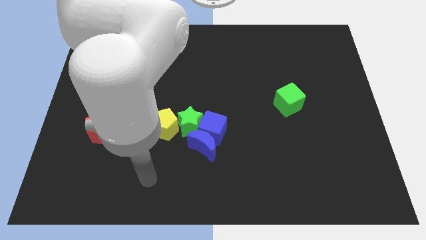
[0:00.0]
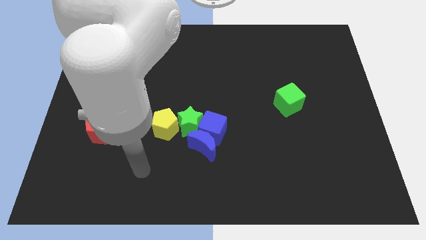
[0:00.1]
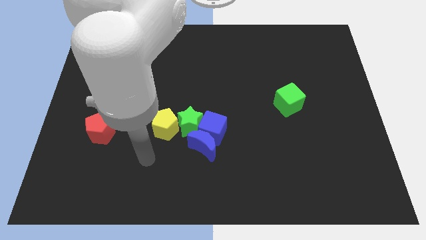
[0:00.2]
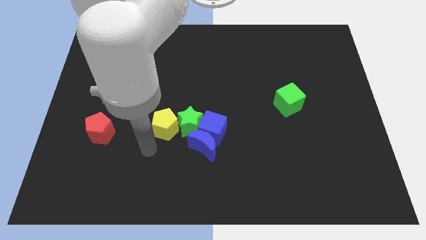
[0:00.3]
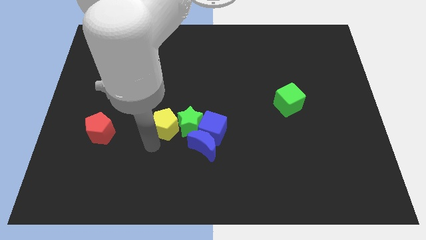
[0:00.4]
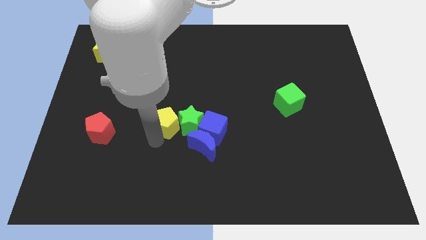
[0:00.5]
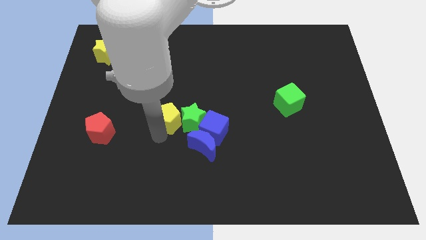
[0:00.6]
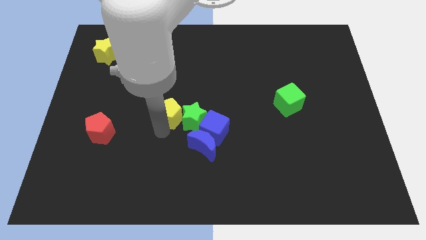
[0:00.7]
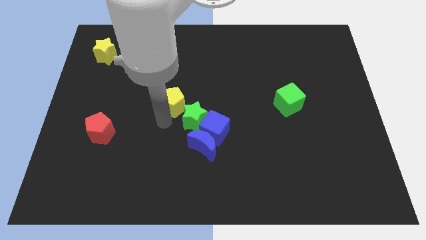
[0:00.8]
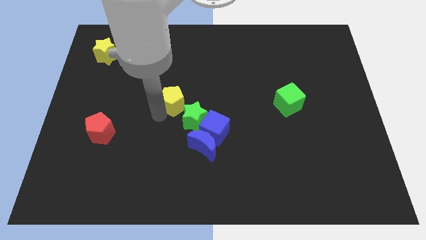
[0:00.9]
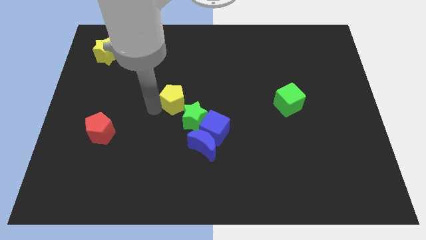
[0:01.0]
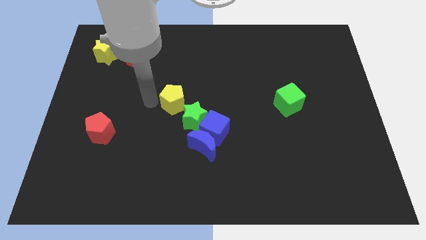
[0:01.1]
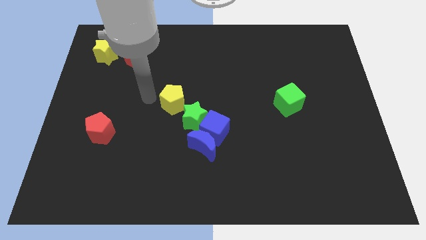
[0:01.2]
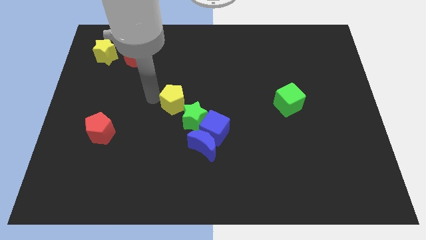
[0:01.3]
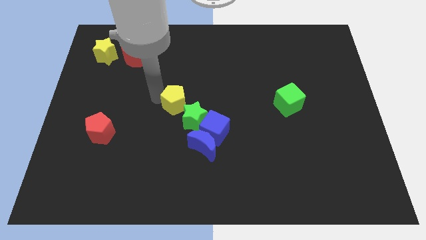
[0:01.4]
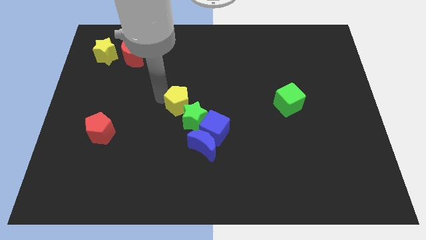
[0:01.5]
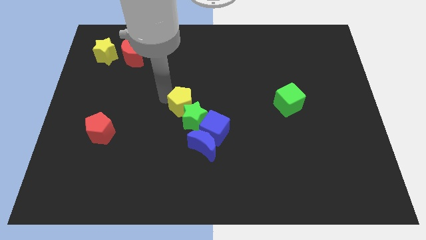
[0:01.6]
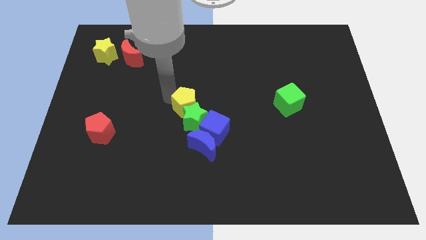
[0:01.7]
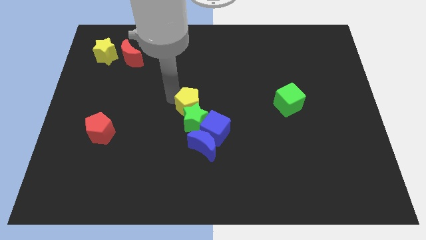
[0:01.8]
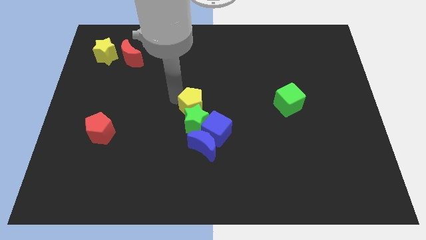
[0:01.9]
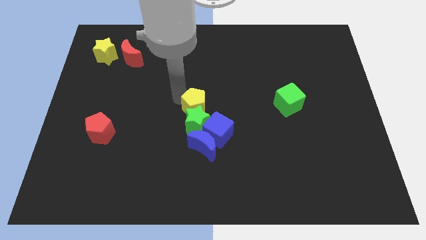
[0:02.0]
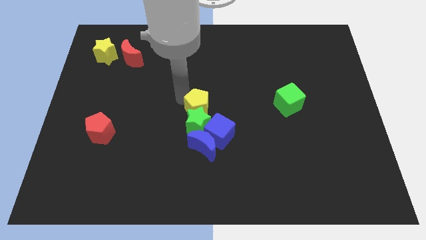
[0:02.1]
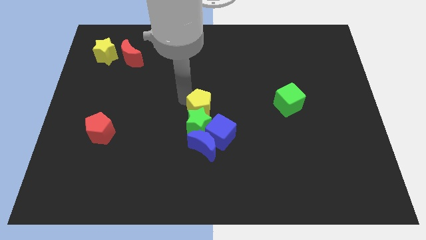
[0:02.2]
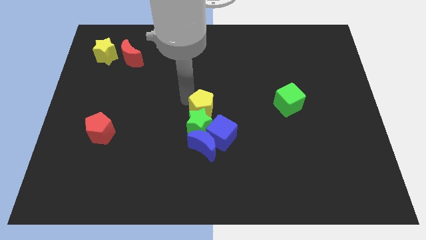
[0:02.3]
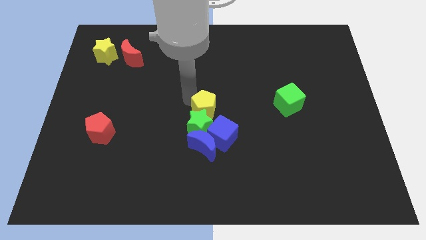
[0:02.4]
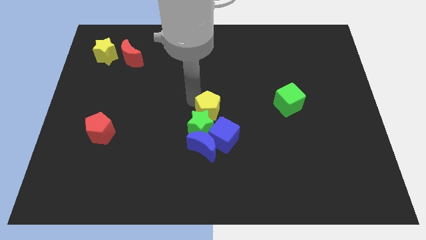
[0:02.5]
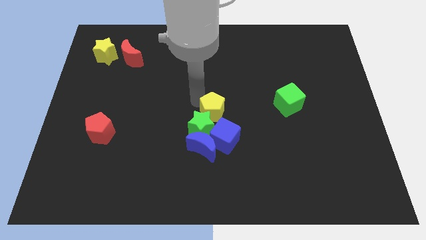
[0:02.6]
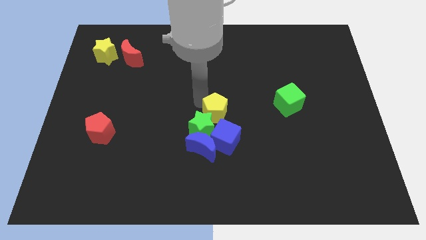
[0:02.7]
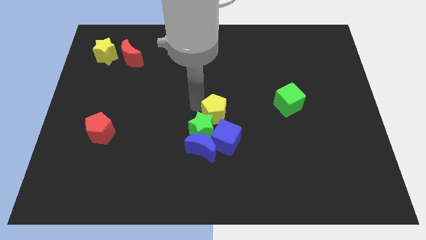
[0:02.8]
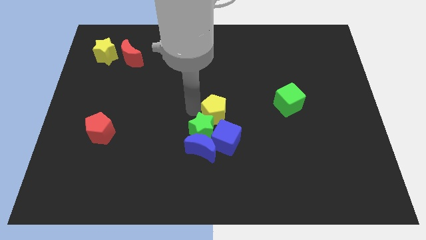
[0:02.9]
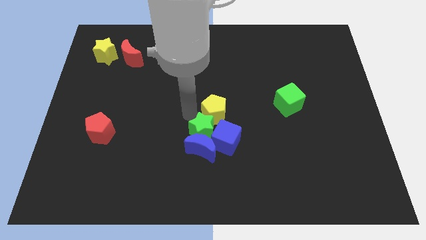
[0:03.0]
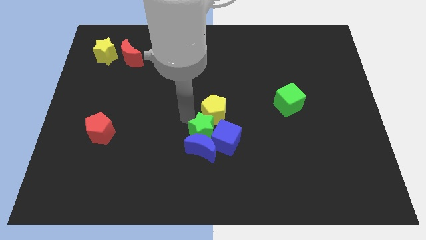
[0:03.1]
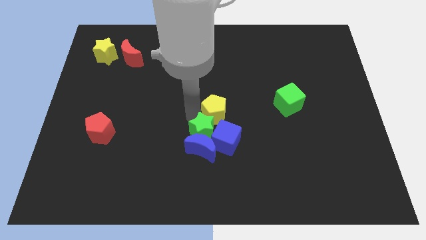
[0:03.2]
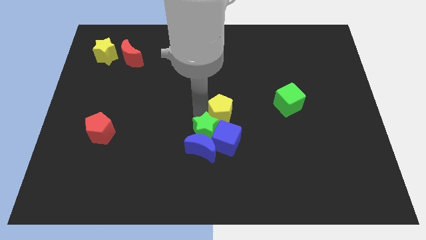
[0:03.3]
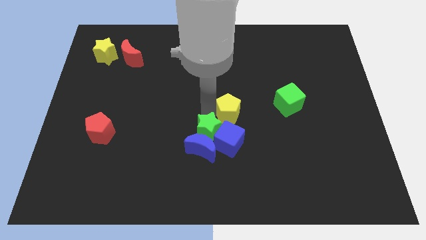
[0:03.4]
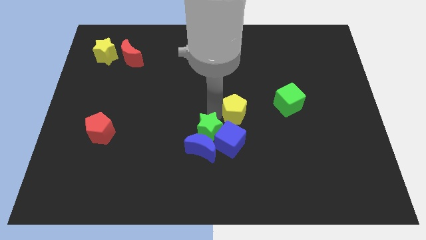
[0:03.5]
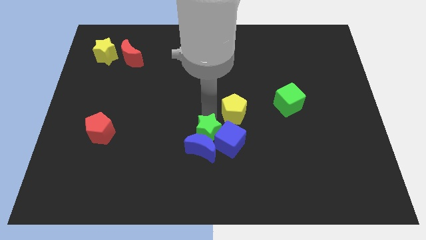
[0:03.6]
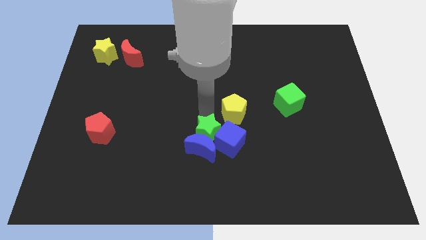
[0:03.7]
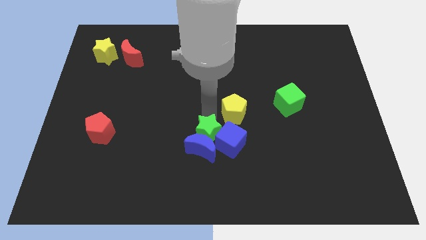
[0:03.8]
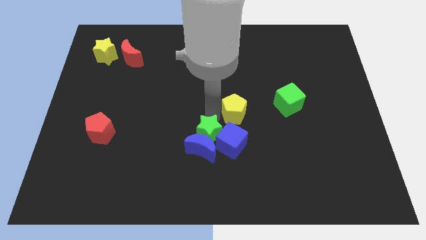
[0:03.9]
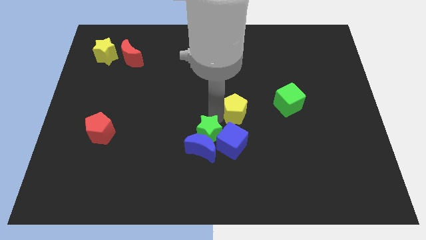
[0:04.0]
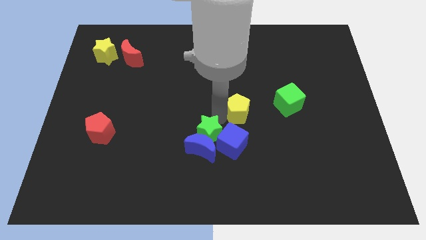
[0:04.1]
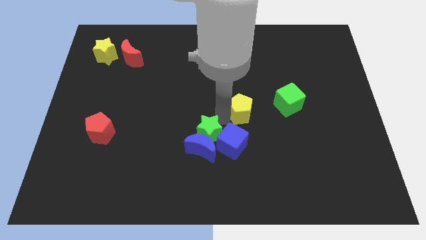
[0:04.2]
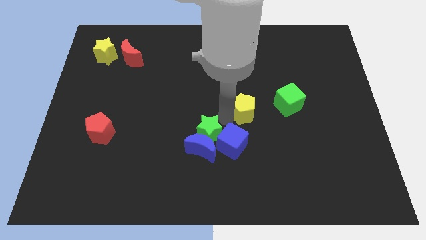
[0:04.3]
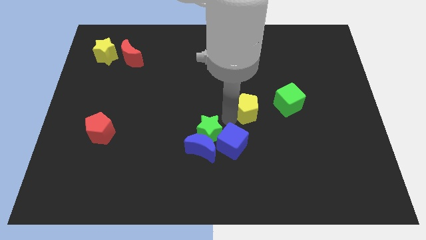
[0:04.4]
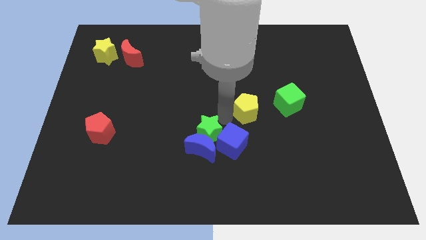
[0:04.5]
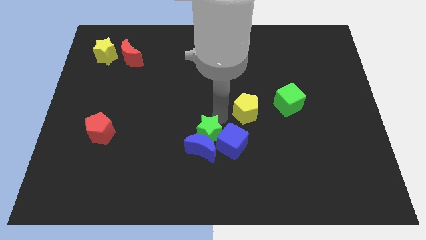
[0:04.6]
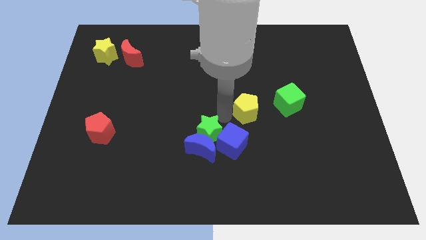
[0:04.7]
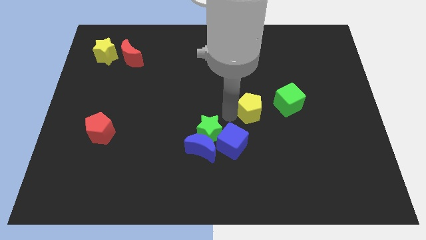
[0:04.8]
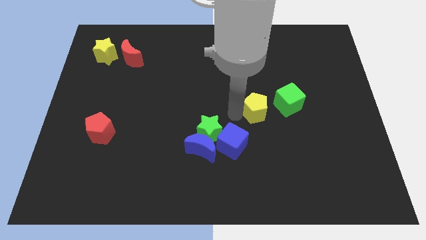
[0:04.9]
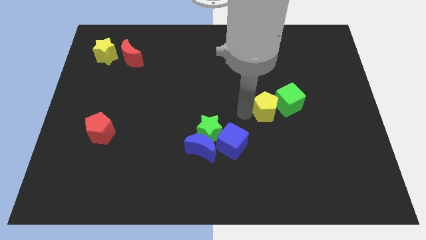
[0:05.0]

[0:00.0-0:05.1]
push the yellow pentagon next to the green cube

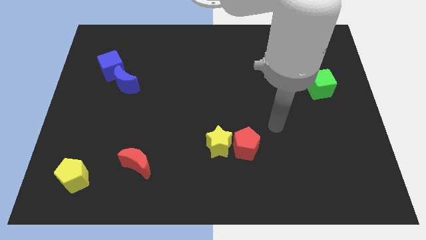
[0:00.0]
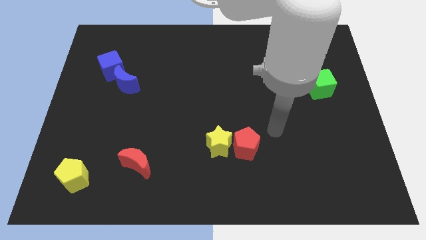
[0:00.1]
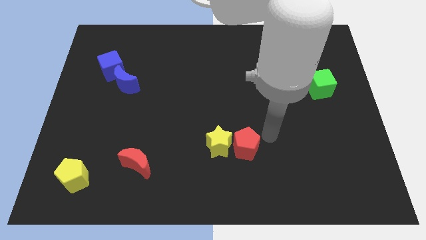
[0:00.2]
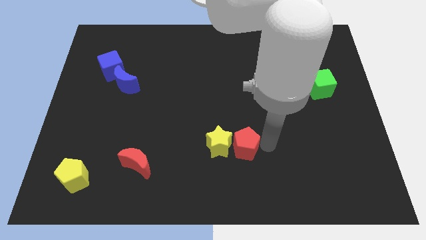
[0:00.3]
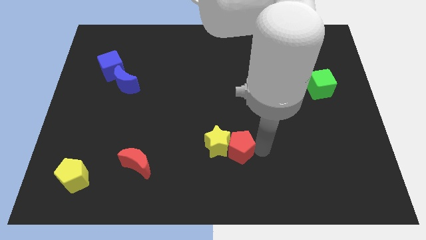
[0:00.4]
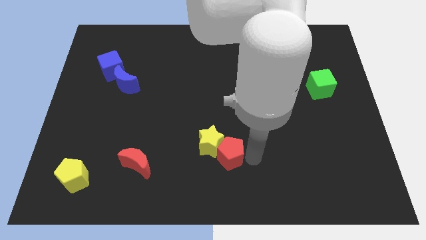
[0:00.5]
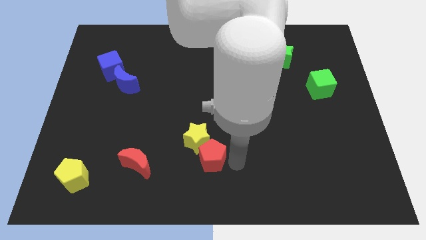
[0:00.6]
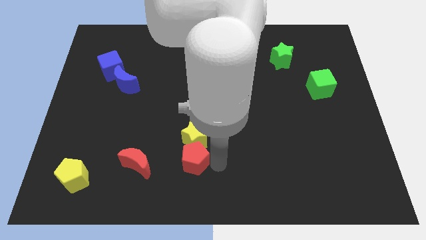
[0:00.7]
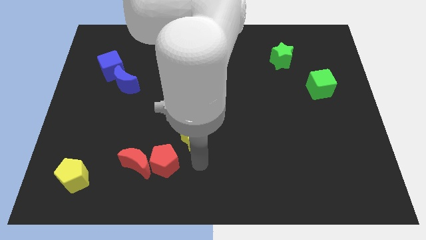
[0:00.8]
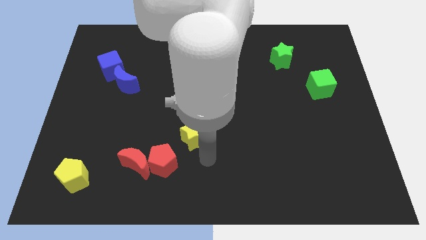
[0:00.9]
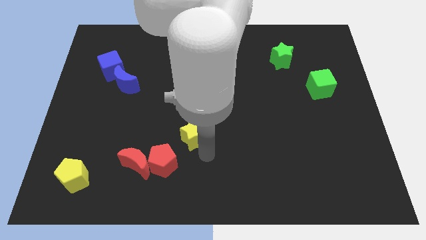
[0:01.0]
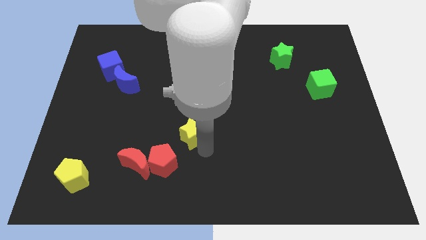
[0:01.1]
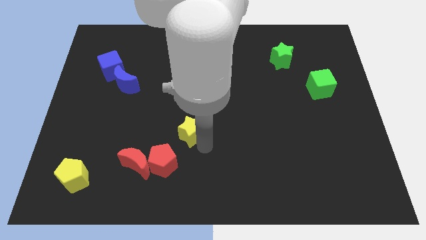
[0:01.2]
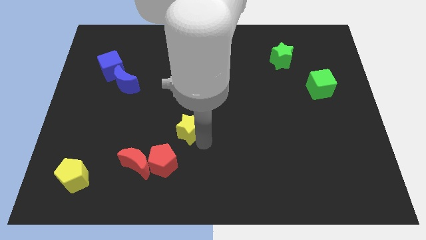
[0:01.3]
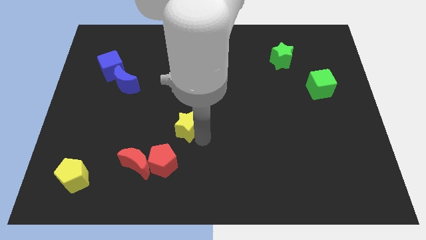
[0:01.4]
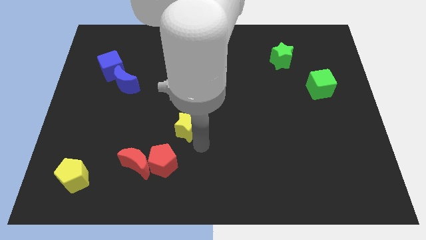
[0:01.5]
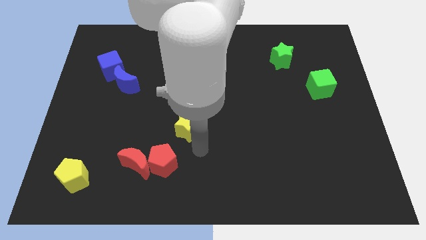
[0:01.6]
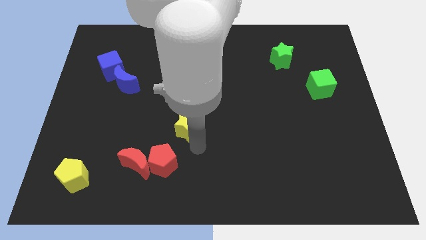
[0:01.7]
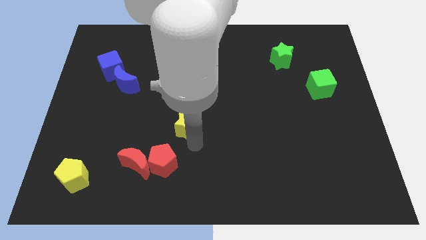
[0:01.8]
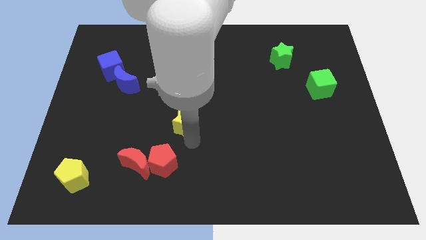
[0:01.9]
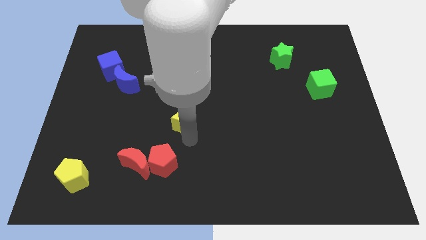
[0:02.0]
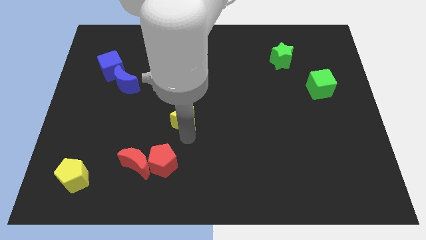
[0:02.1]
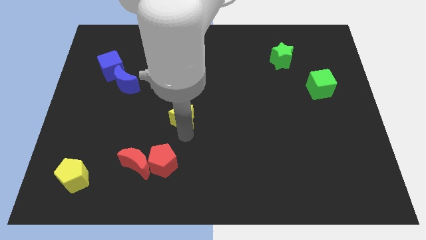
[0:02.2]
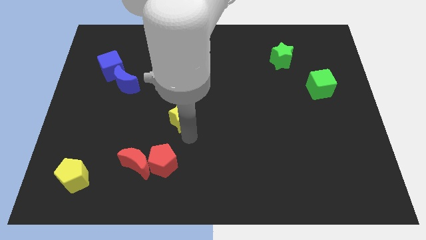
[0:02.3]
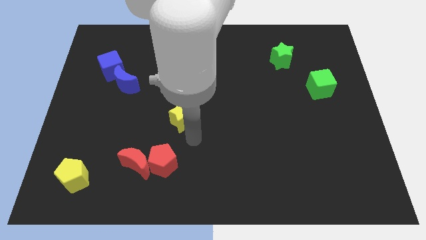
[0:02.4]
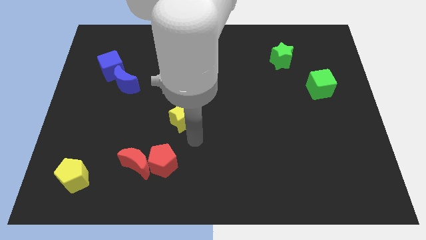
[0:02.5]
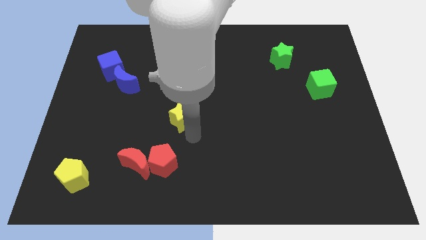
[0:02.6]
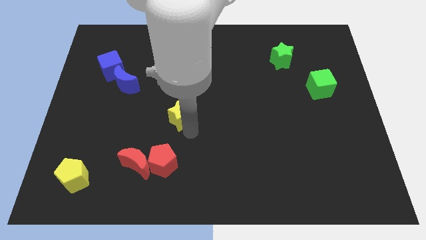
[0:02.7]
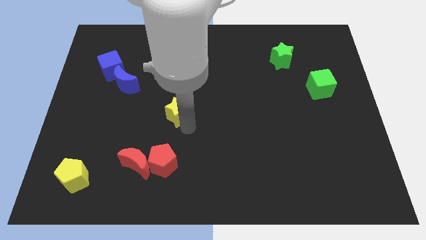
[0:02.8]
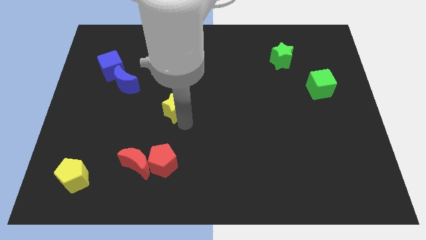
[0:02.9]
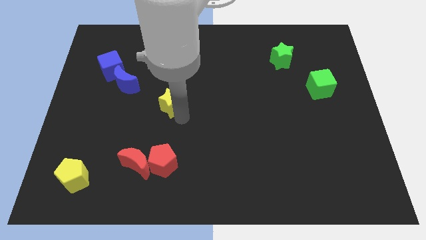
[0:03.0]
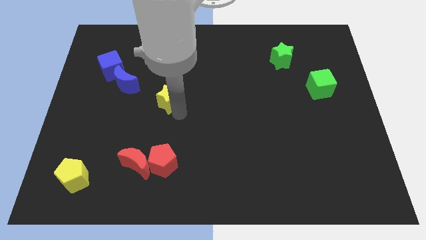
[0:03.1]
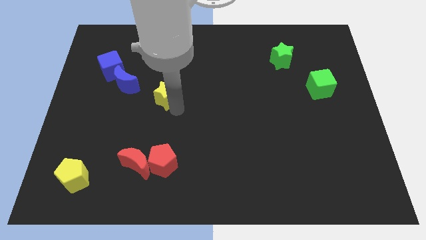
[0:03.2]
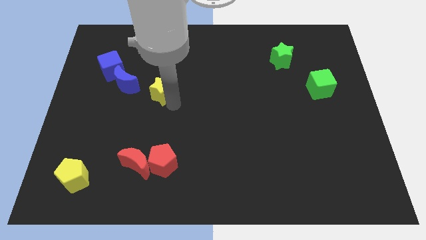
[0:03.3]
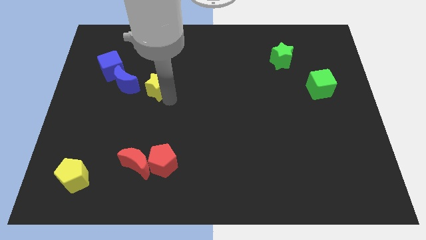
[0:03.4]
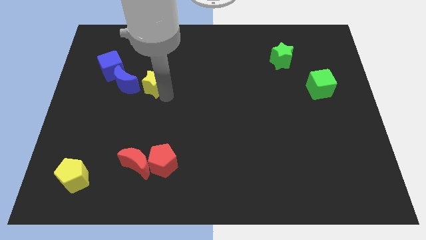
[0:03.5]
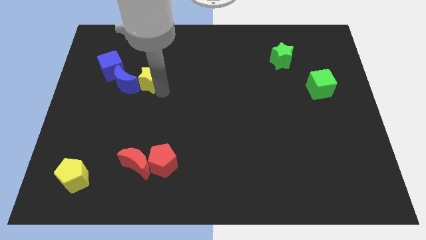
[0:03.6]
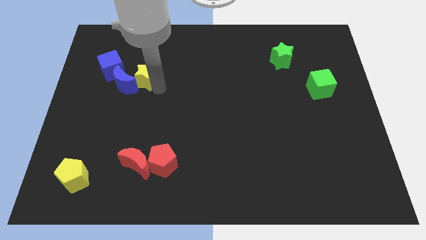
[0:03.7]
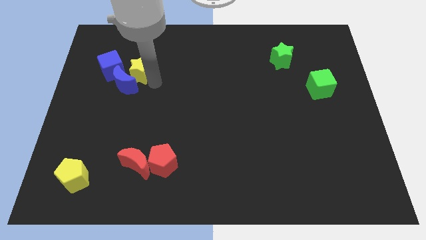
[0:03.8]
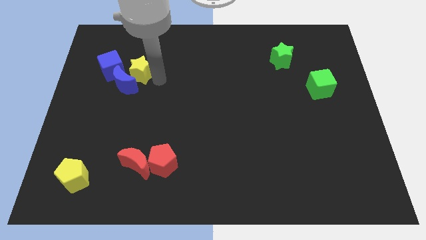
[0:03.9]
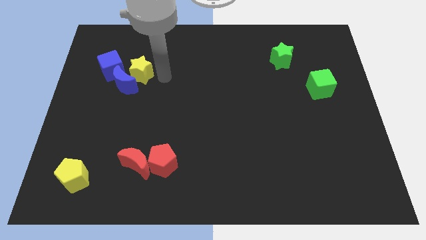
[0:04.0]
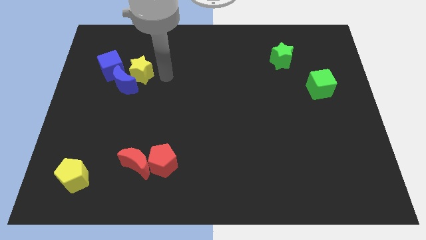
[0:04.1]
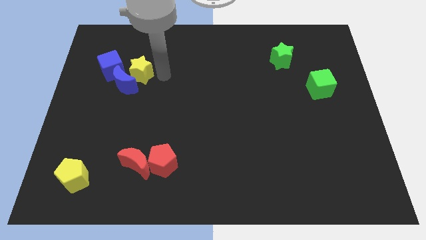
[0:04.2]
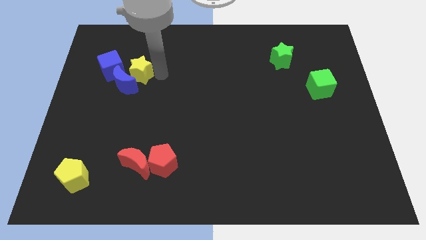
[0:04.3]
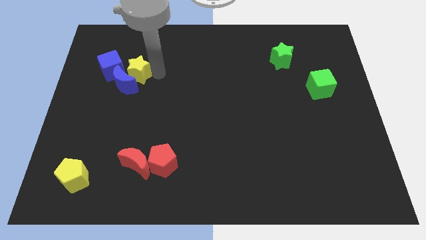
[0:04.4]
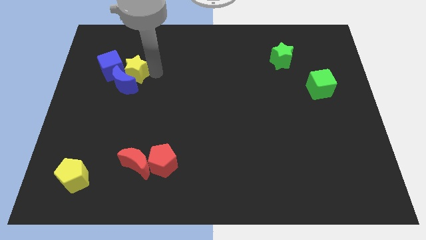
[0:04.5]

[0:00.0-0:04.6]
move the yellow star next to the blue cube
